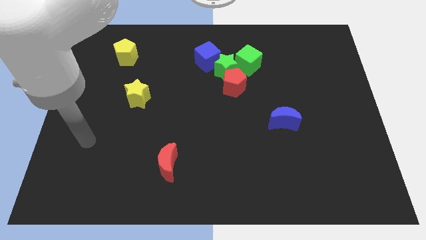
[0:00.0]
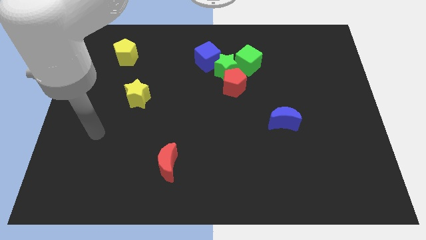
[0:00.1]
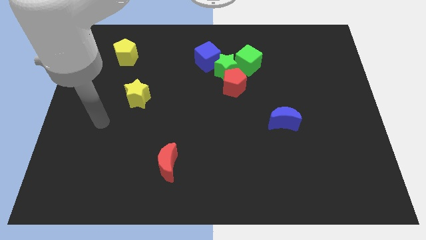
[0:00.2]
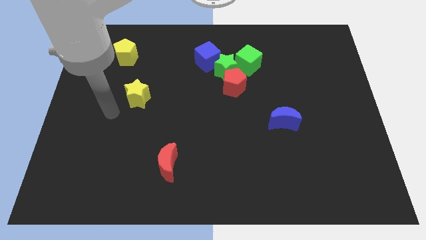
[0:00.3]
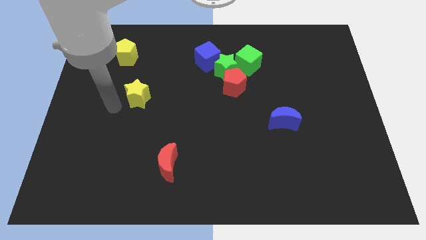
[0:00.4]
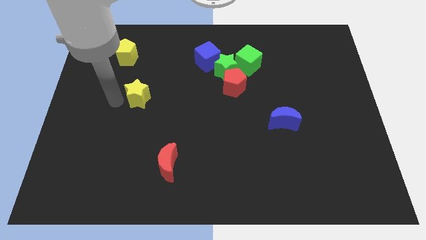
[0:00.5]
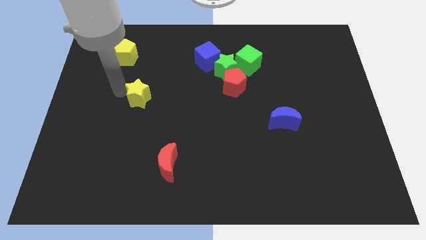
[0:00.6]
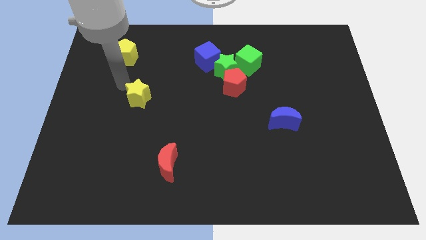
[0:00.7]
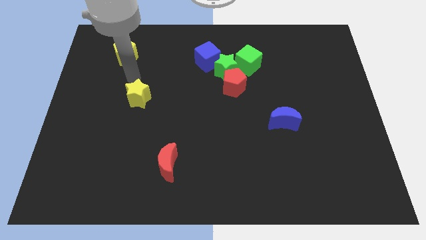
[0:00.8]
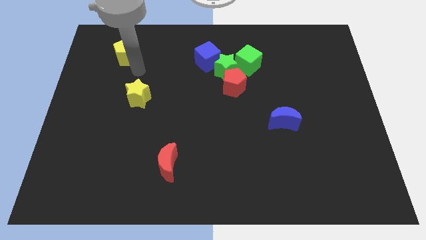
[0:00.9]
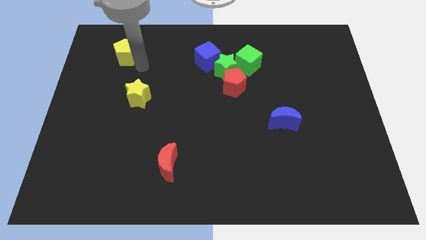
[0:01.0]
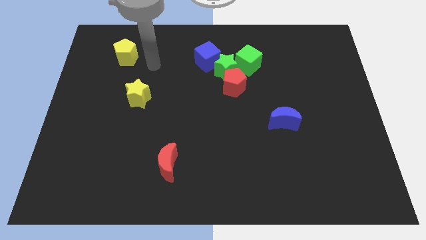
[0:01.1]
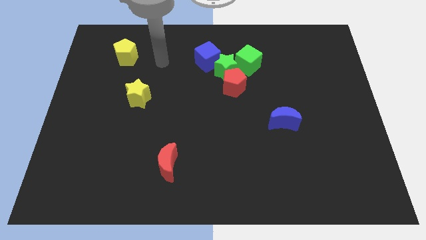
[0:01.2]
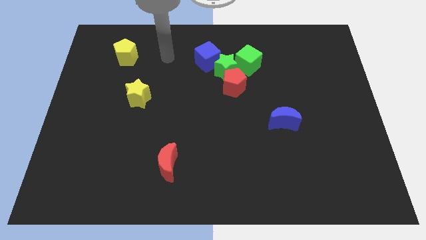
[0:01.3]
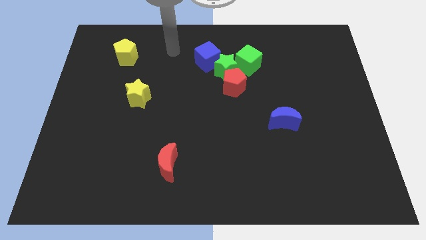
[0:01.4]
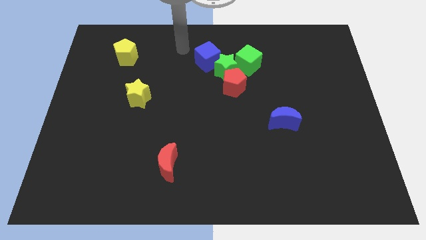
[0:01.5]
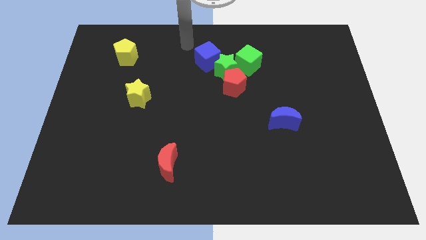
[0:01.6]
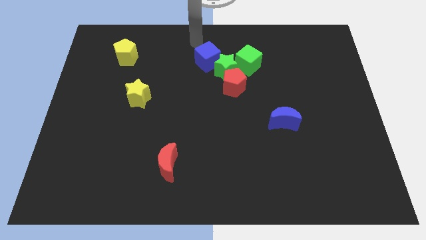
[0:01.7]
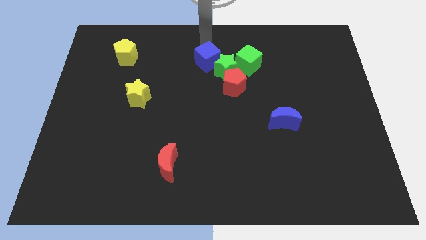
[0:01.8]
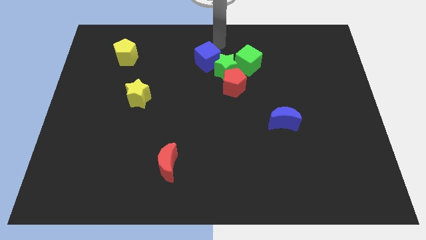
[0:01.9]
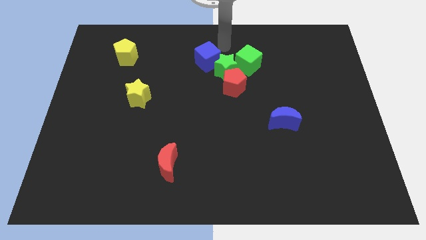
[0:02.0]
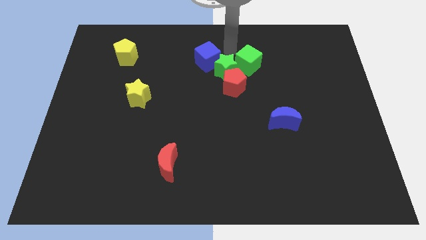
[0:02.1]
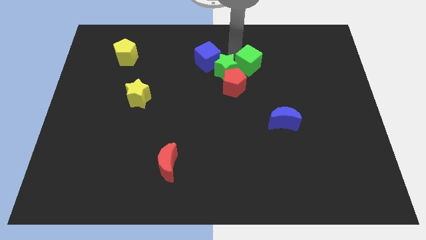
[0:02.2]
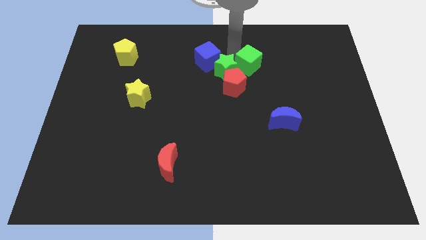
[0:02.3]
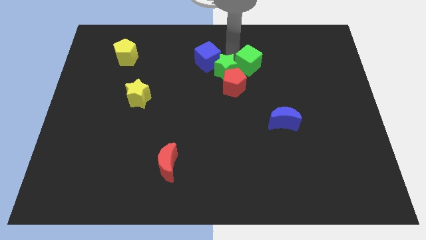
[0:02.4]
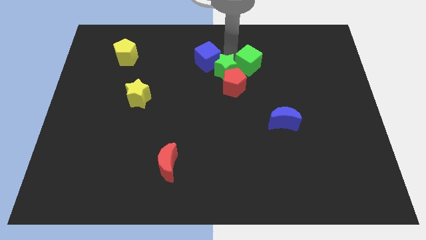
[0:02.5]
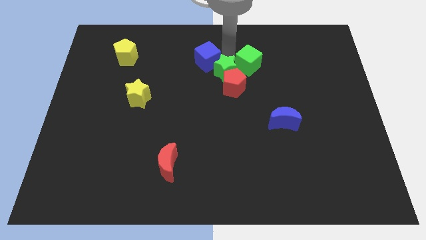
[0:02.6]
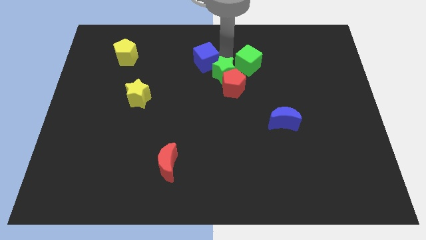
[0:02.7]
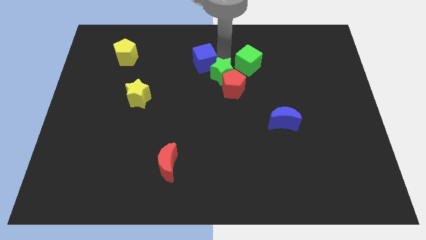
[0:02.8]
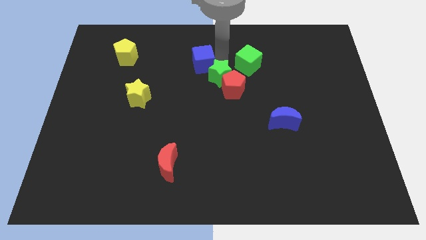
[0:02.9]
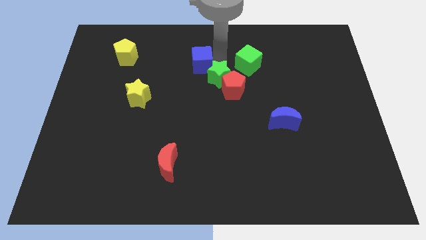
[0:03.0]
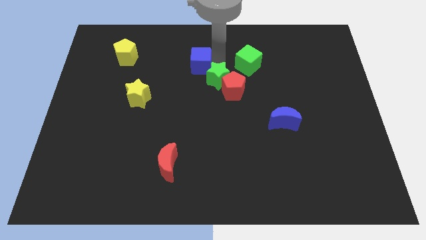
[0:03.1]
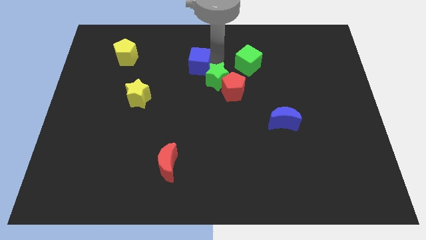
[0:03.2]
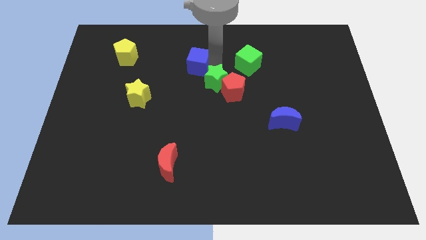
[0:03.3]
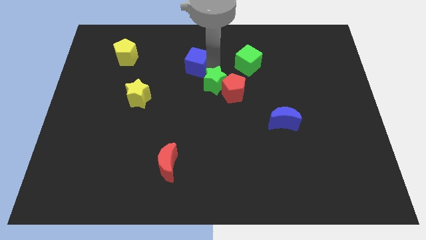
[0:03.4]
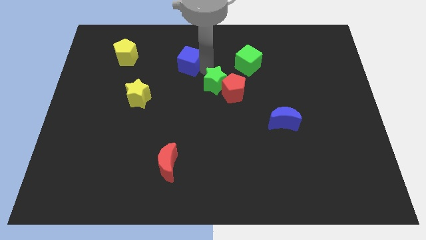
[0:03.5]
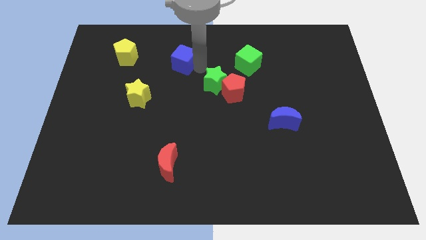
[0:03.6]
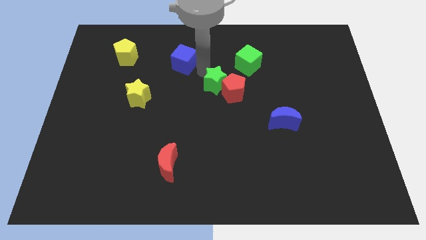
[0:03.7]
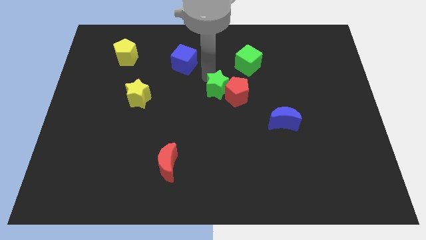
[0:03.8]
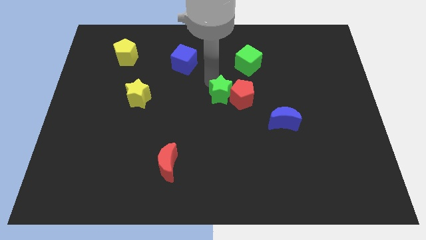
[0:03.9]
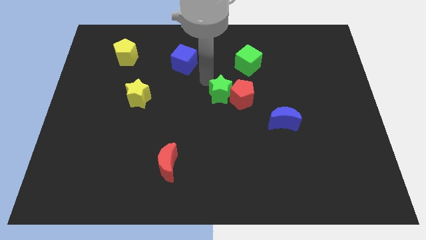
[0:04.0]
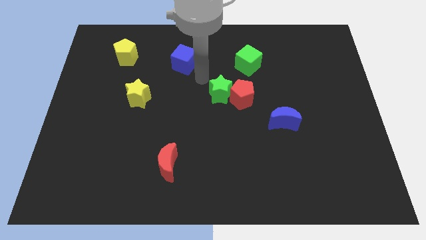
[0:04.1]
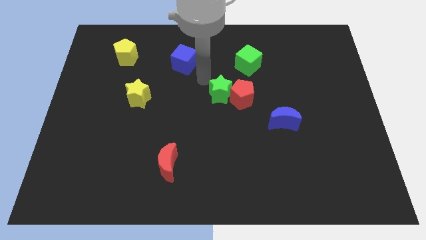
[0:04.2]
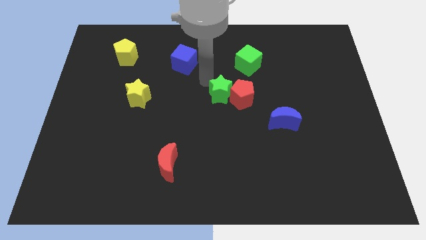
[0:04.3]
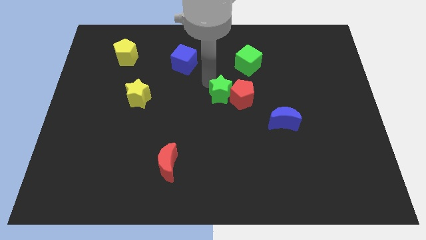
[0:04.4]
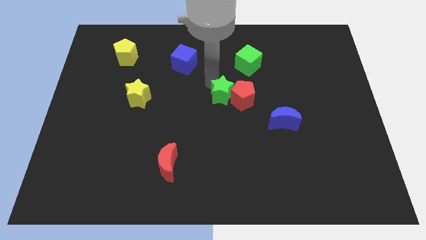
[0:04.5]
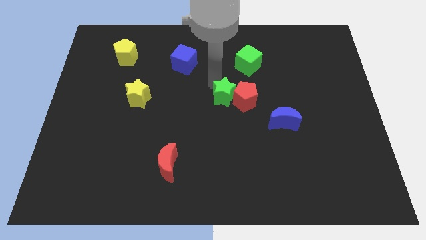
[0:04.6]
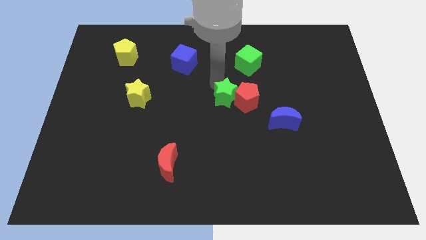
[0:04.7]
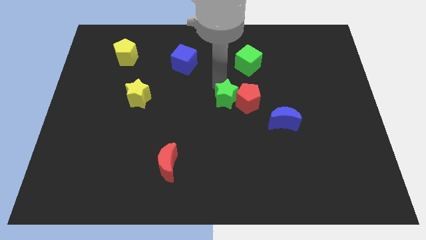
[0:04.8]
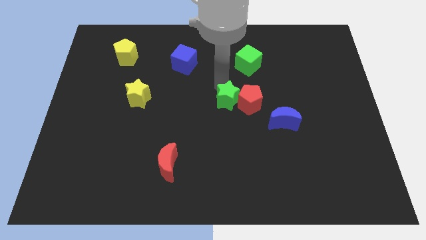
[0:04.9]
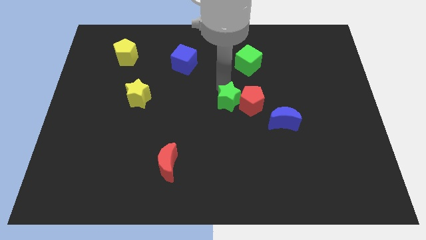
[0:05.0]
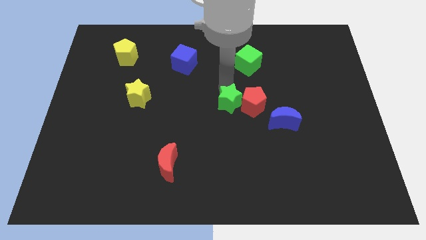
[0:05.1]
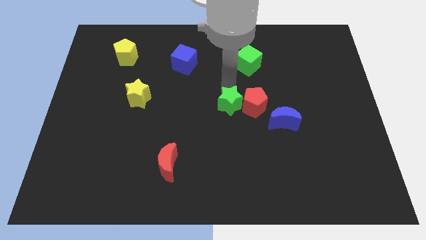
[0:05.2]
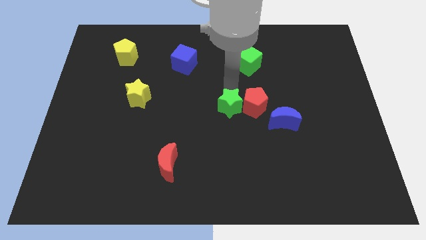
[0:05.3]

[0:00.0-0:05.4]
put the green star left of the blue moon

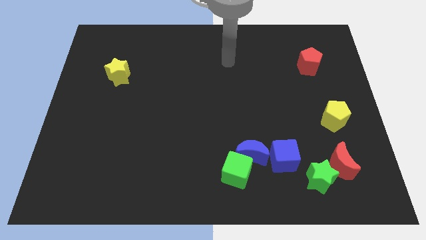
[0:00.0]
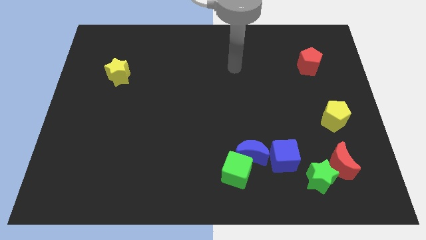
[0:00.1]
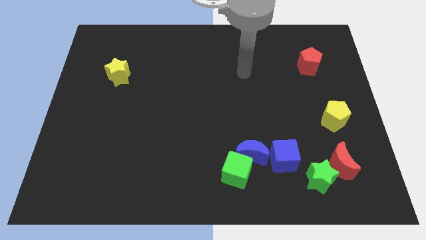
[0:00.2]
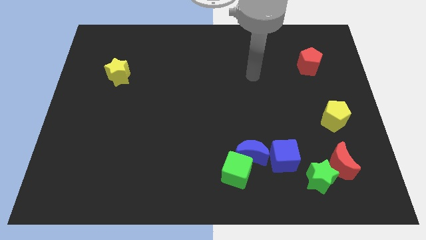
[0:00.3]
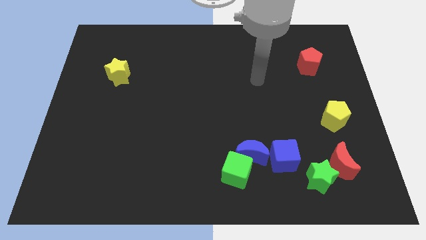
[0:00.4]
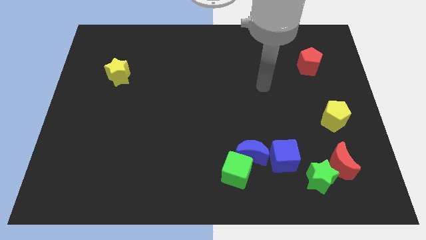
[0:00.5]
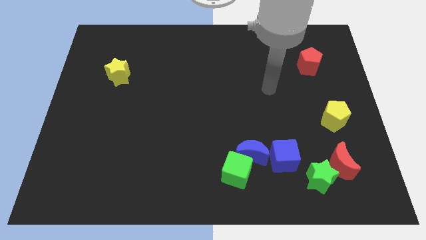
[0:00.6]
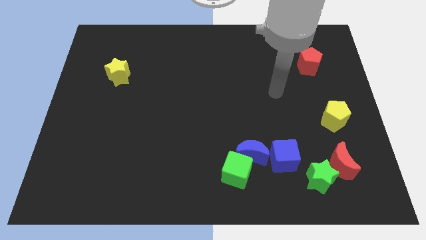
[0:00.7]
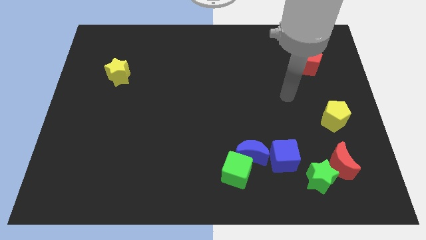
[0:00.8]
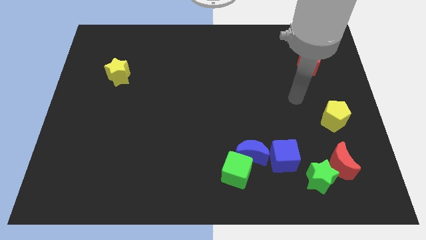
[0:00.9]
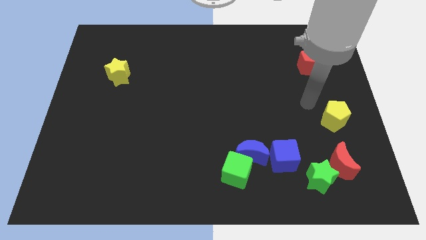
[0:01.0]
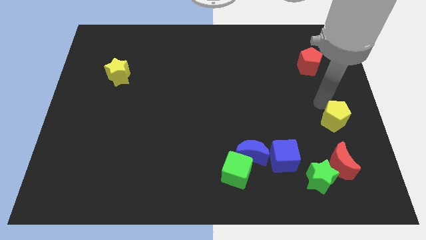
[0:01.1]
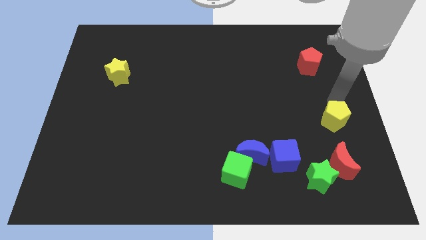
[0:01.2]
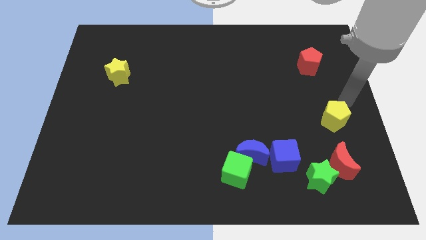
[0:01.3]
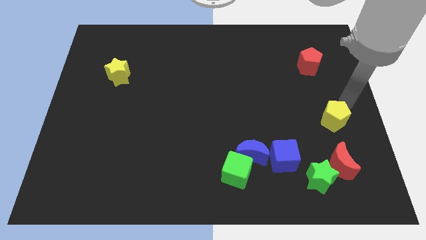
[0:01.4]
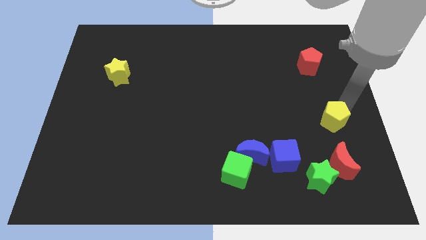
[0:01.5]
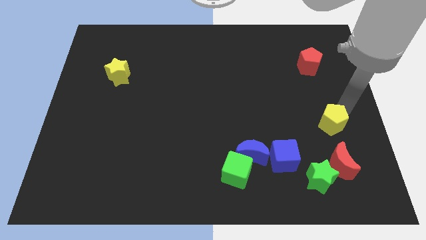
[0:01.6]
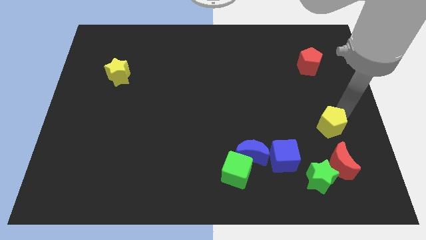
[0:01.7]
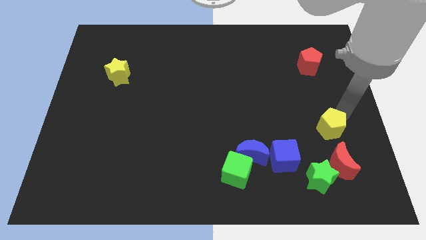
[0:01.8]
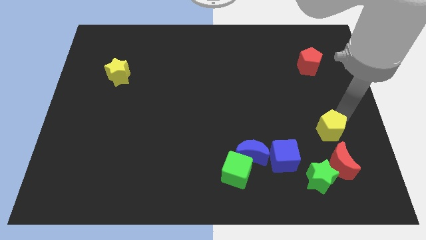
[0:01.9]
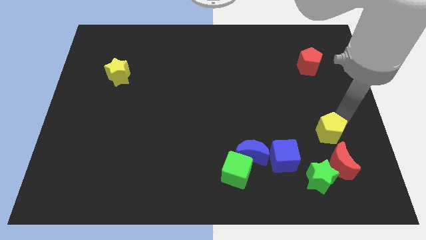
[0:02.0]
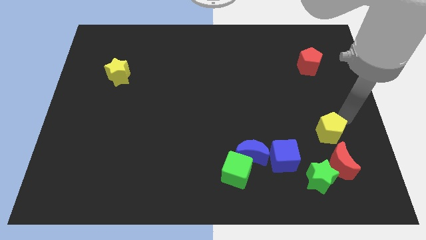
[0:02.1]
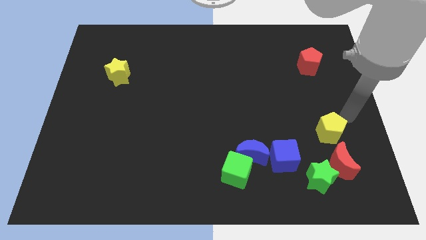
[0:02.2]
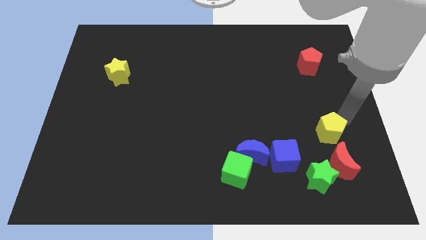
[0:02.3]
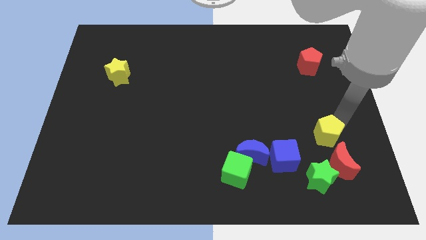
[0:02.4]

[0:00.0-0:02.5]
move the yellow pentagon to the top left of the red moon
